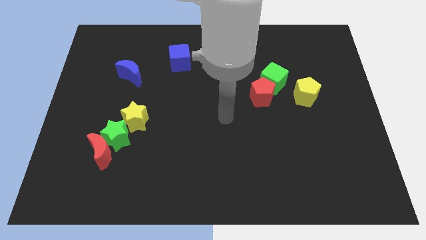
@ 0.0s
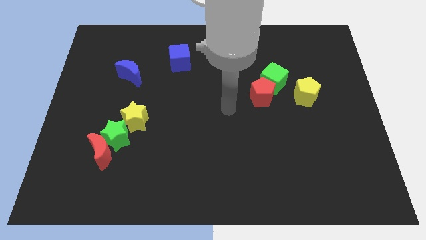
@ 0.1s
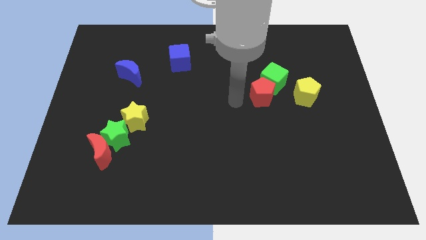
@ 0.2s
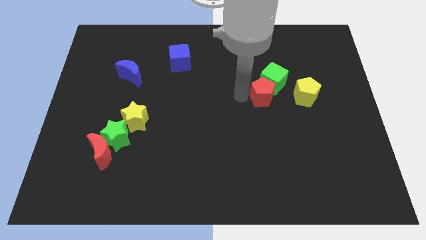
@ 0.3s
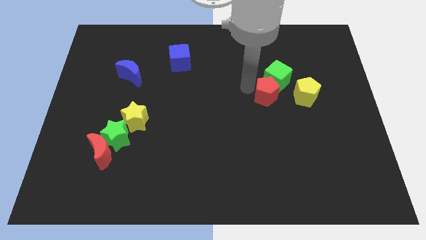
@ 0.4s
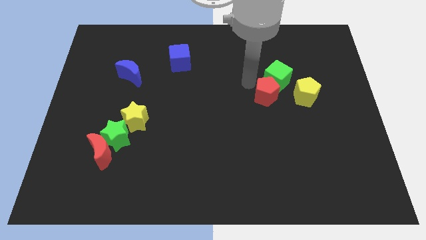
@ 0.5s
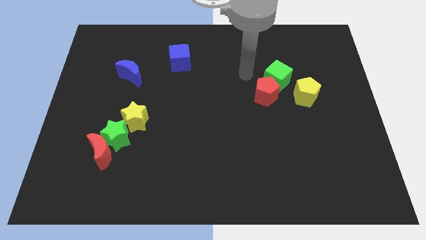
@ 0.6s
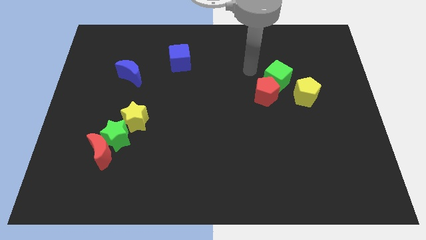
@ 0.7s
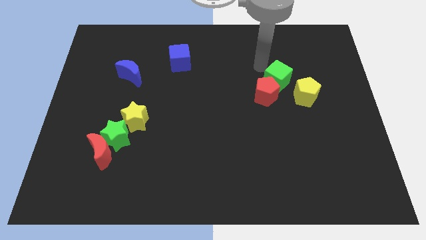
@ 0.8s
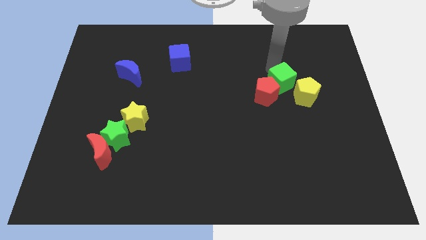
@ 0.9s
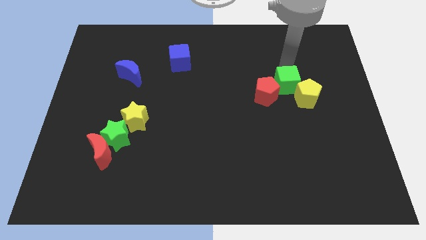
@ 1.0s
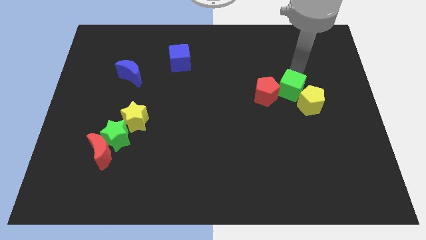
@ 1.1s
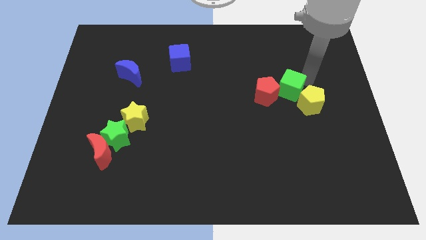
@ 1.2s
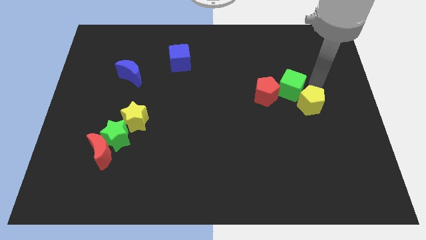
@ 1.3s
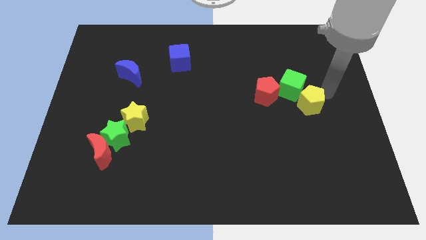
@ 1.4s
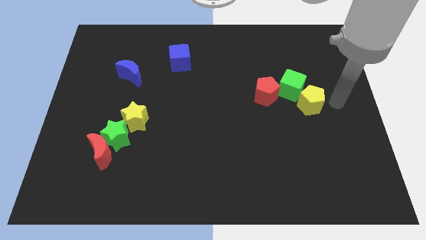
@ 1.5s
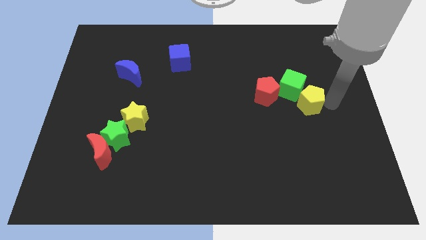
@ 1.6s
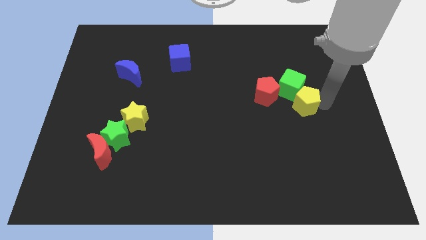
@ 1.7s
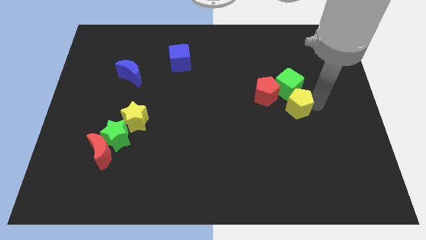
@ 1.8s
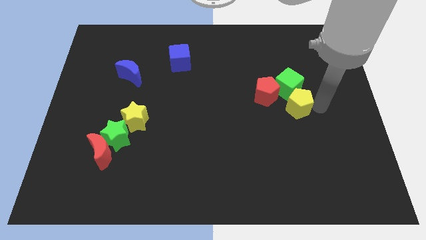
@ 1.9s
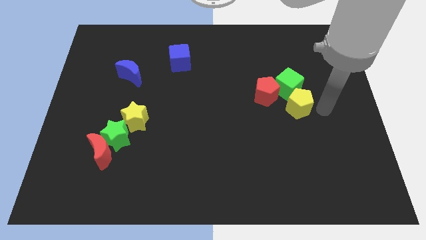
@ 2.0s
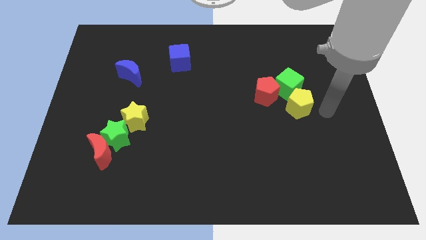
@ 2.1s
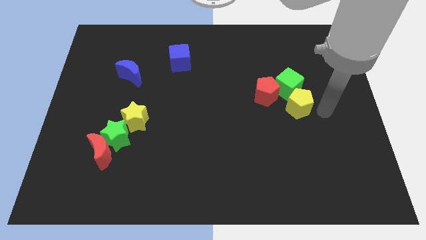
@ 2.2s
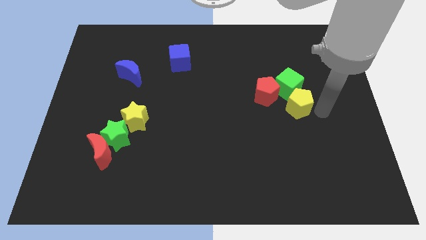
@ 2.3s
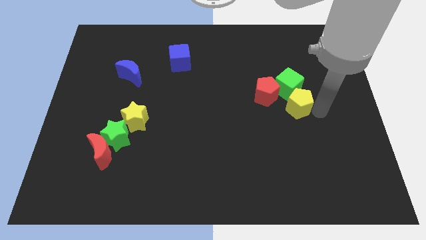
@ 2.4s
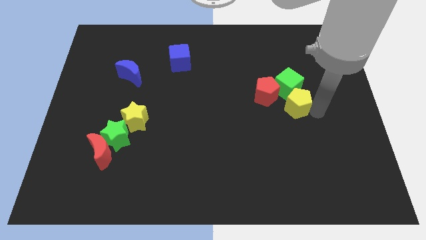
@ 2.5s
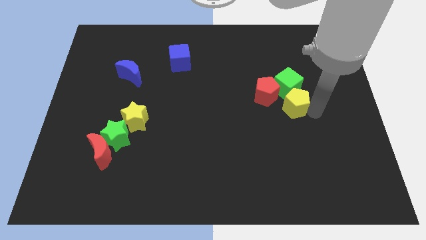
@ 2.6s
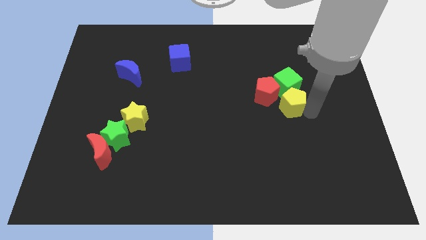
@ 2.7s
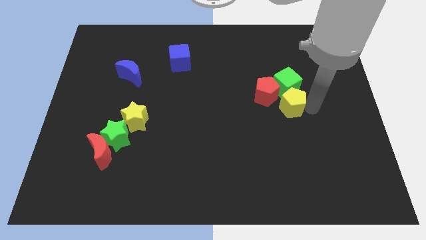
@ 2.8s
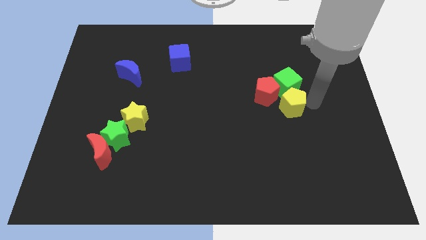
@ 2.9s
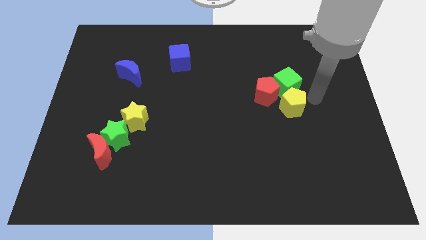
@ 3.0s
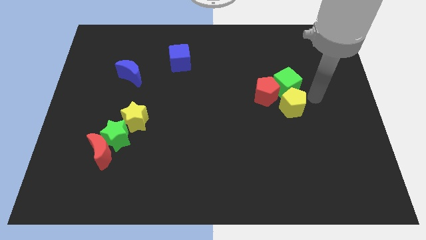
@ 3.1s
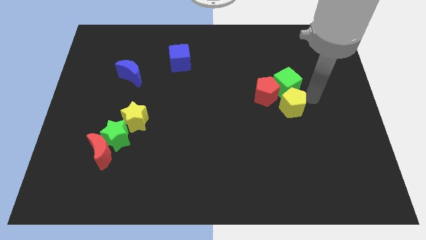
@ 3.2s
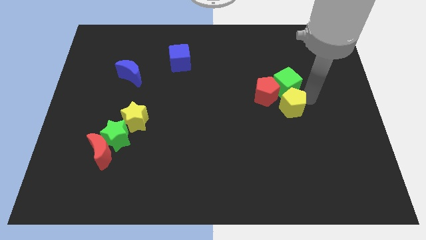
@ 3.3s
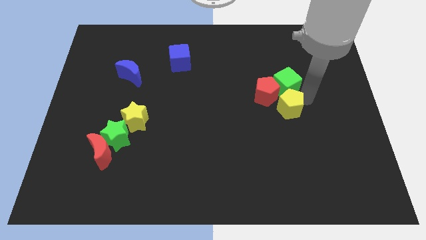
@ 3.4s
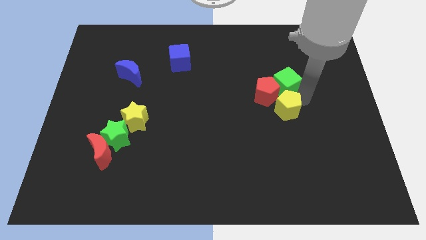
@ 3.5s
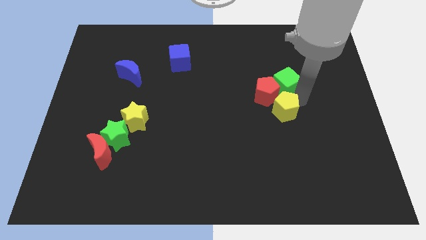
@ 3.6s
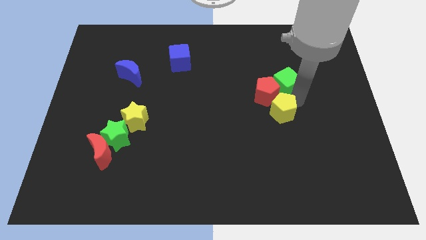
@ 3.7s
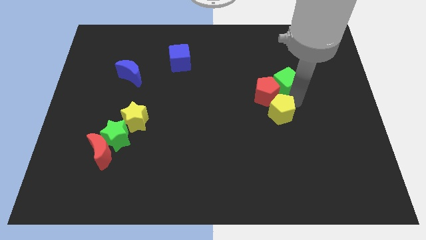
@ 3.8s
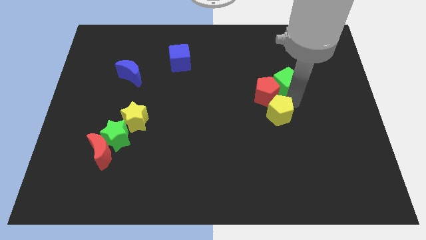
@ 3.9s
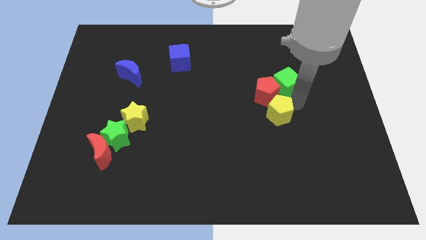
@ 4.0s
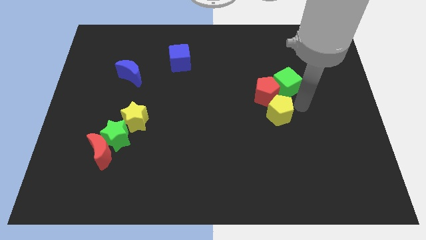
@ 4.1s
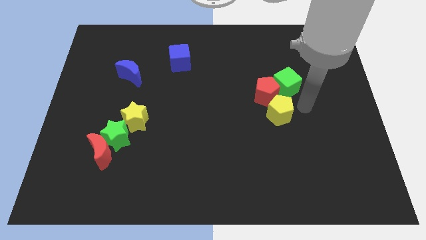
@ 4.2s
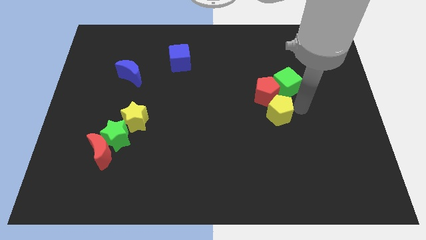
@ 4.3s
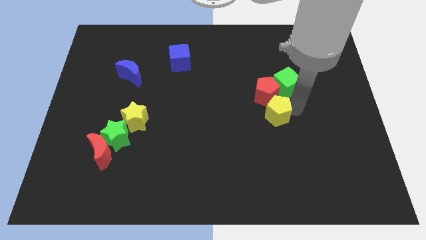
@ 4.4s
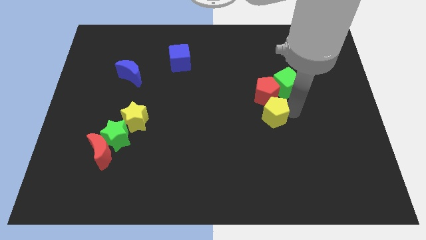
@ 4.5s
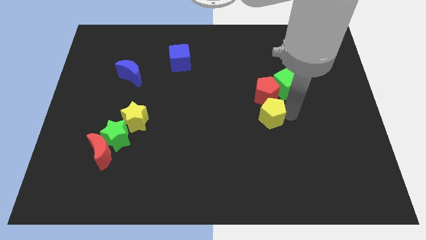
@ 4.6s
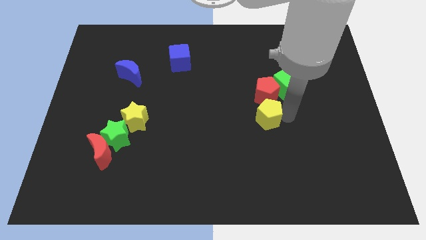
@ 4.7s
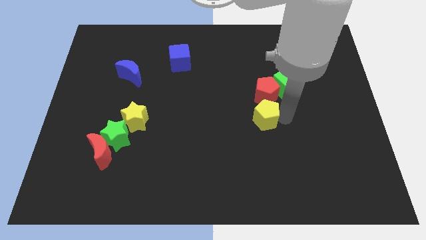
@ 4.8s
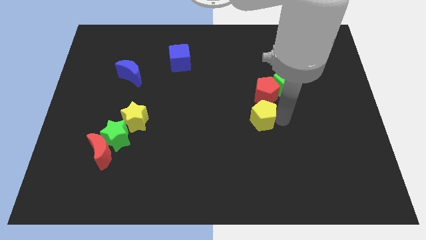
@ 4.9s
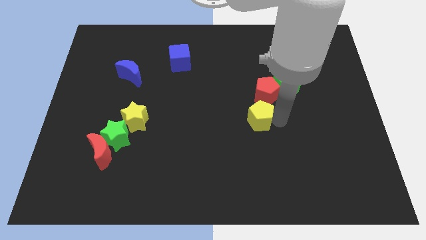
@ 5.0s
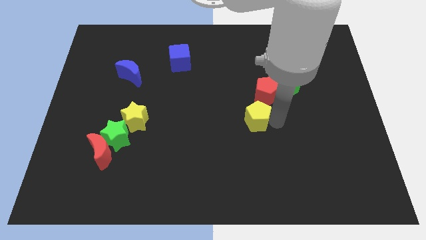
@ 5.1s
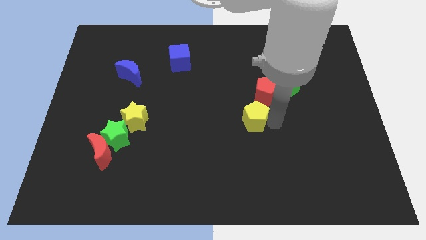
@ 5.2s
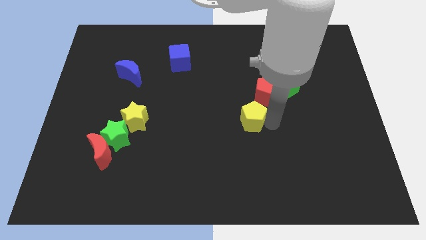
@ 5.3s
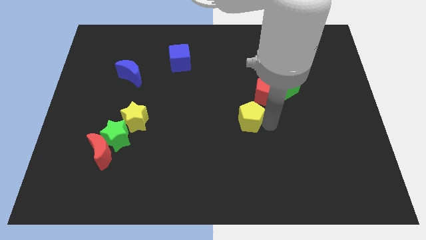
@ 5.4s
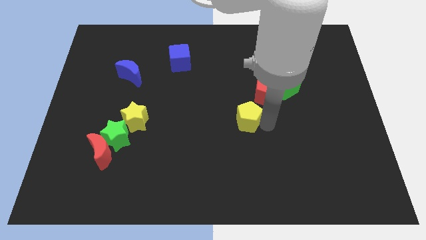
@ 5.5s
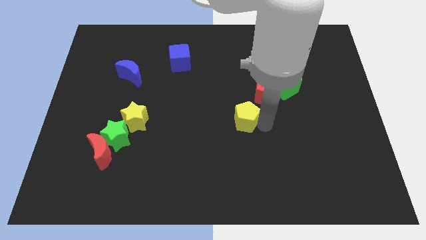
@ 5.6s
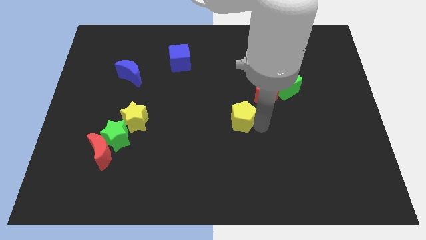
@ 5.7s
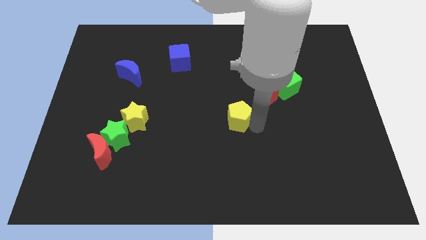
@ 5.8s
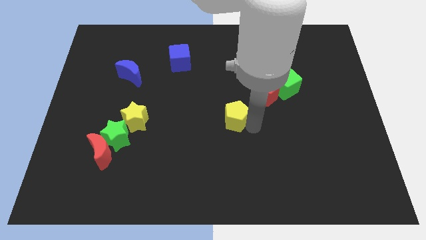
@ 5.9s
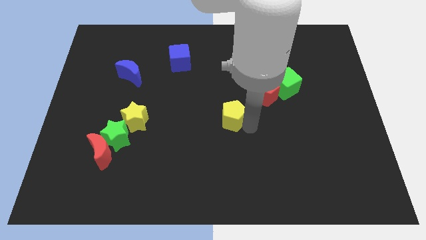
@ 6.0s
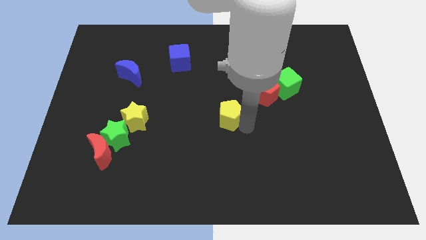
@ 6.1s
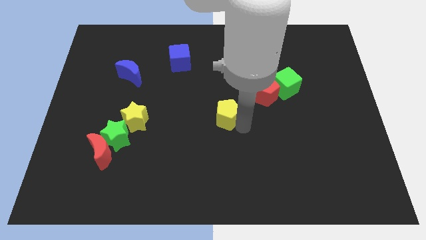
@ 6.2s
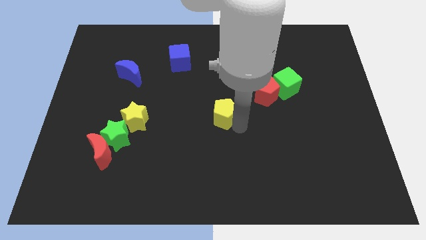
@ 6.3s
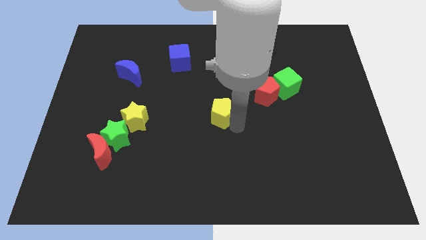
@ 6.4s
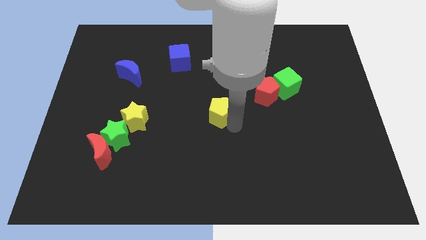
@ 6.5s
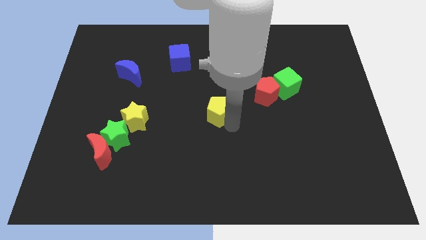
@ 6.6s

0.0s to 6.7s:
slide the yellow pentagon left

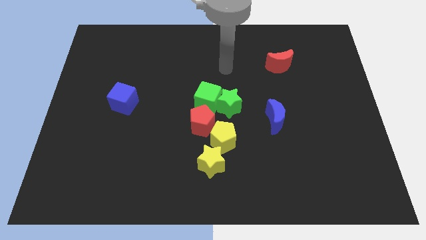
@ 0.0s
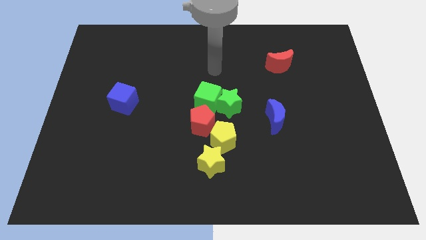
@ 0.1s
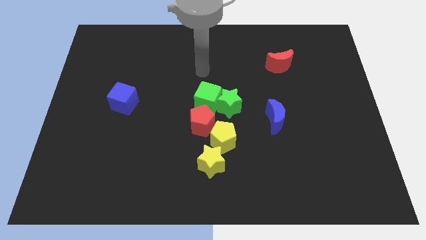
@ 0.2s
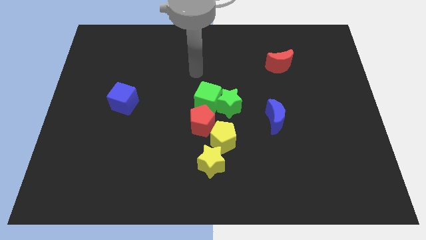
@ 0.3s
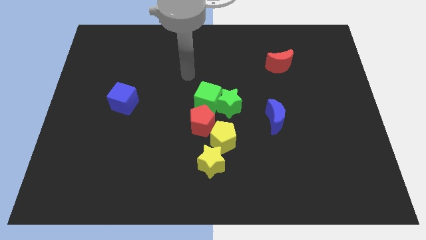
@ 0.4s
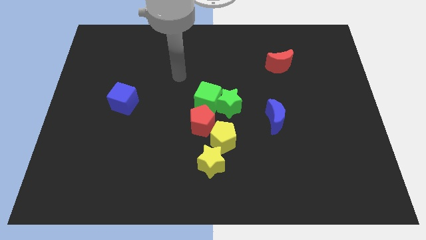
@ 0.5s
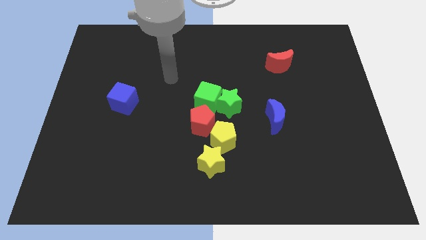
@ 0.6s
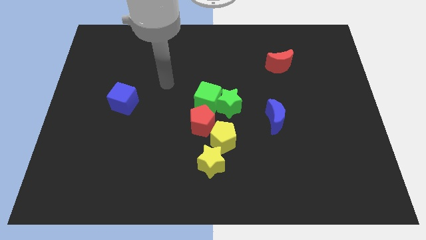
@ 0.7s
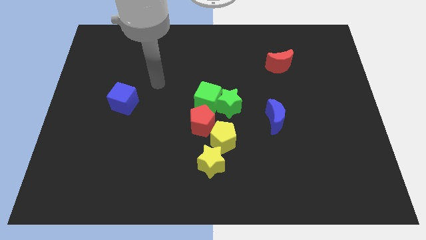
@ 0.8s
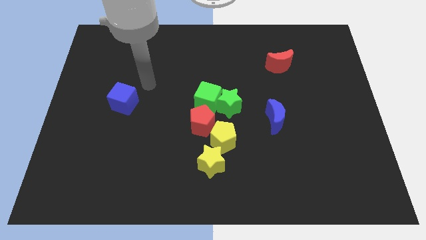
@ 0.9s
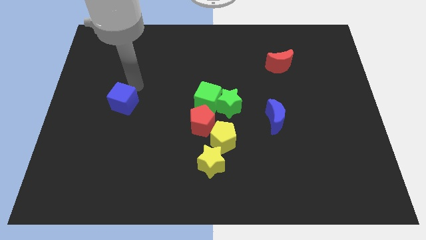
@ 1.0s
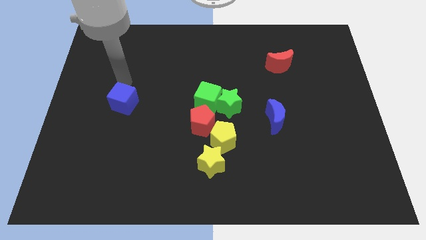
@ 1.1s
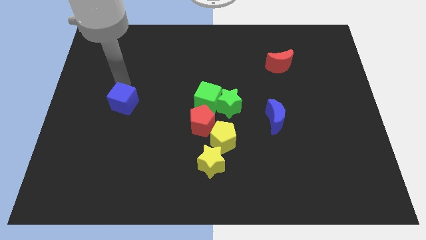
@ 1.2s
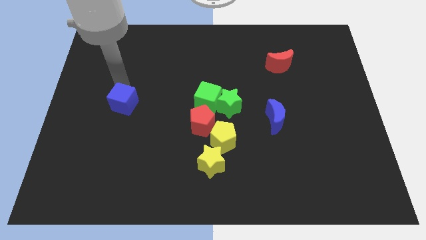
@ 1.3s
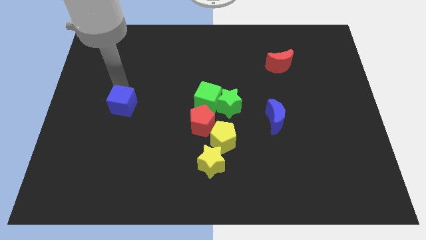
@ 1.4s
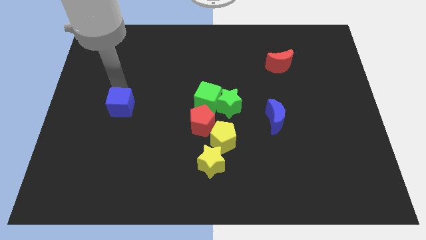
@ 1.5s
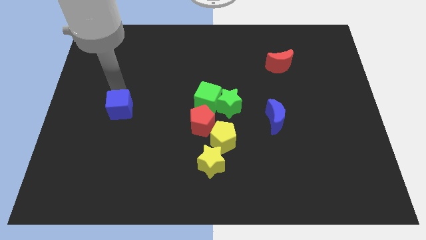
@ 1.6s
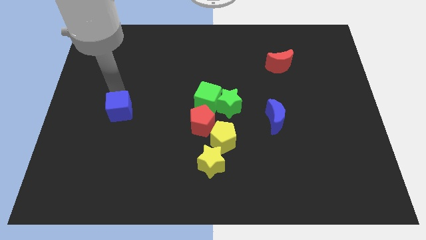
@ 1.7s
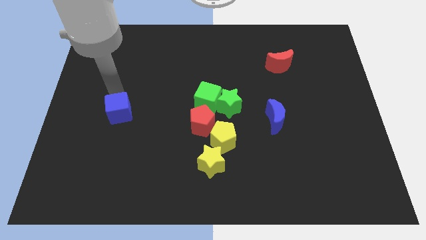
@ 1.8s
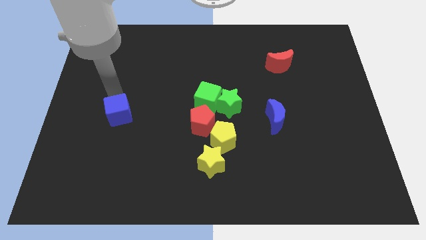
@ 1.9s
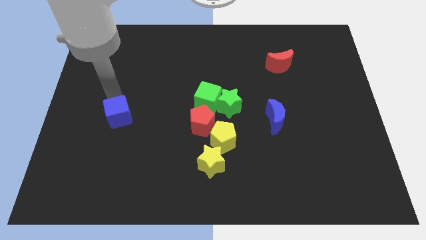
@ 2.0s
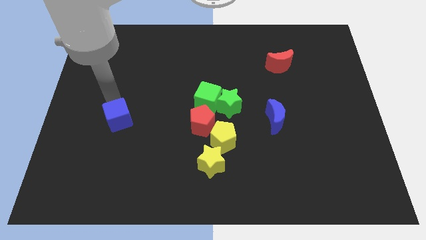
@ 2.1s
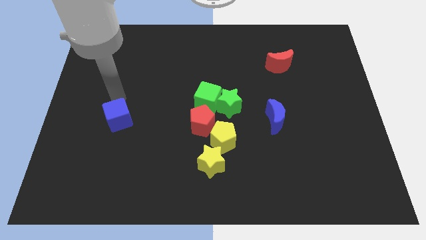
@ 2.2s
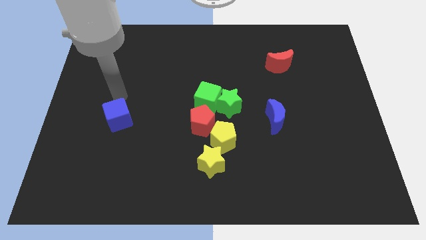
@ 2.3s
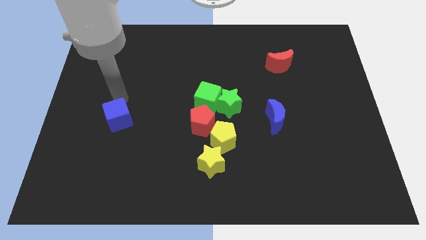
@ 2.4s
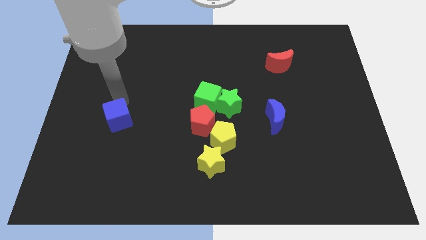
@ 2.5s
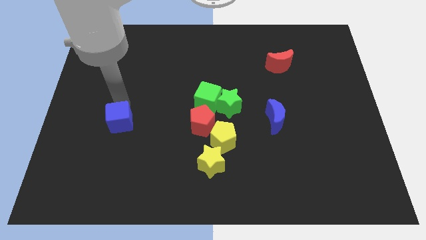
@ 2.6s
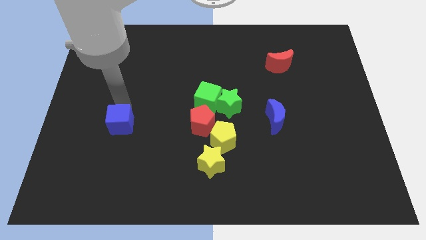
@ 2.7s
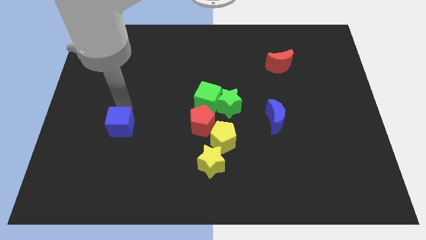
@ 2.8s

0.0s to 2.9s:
slightly slide the blue cube down
